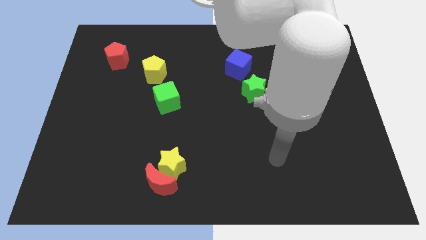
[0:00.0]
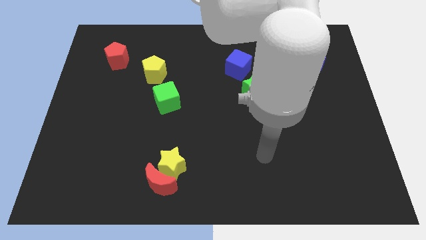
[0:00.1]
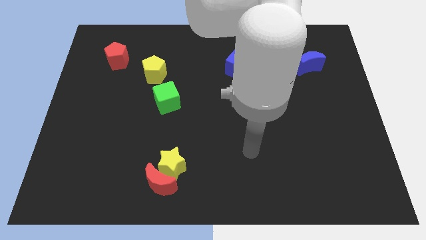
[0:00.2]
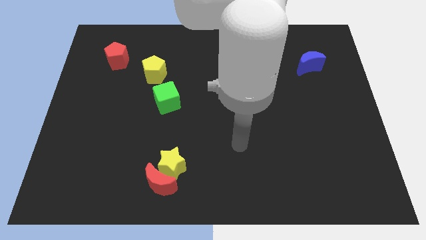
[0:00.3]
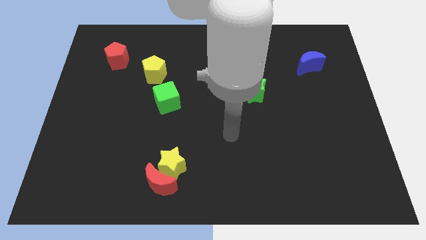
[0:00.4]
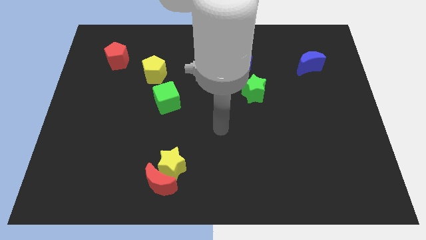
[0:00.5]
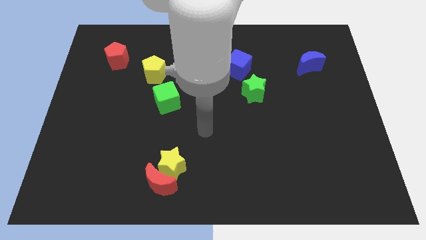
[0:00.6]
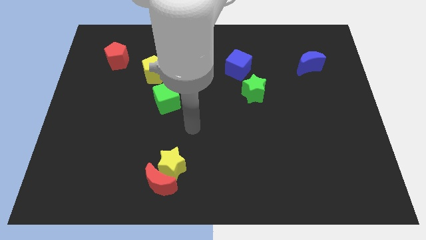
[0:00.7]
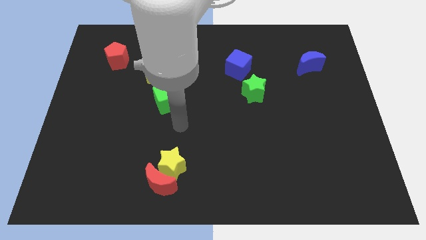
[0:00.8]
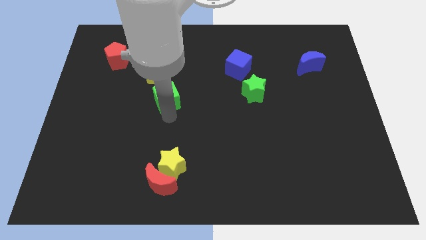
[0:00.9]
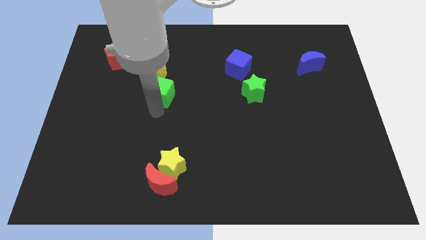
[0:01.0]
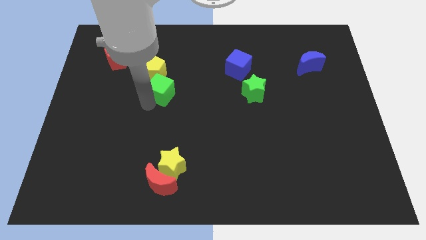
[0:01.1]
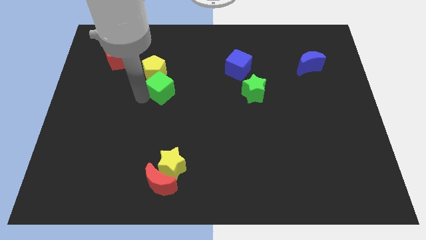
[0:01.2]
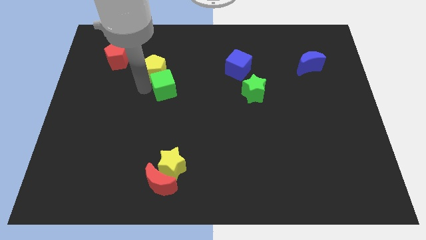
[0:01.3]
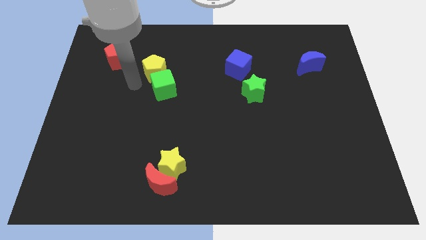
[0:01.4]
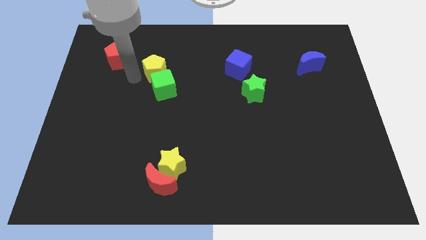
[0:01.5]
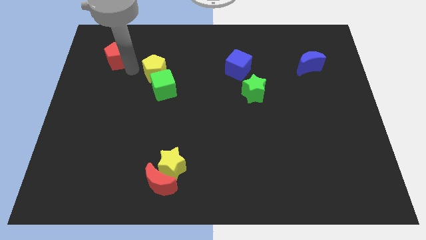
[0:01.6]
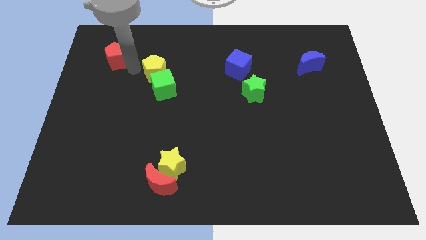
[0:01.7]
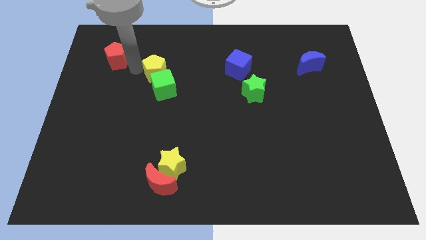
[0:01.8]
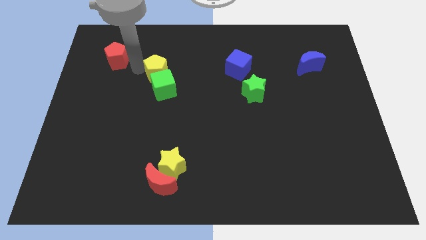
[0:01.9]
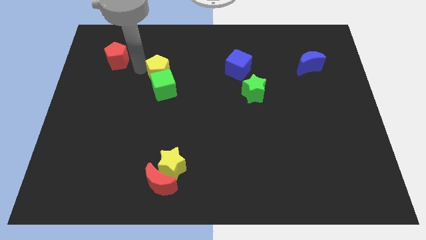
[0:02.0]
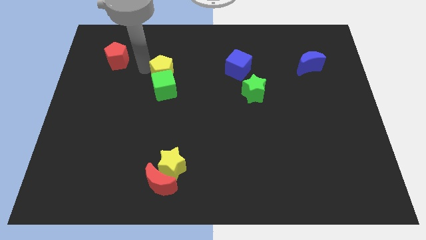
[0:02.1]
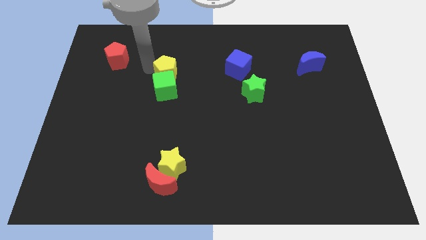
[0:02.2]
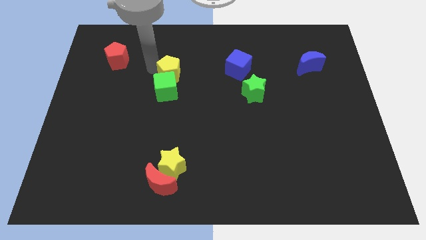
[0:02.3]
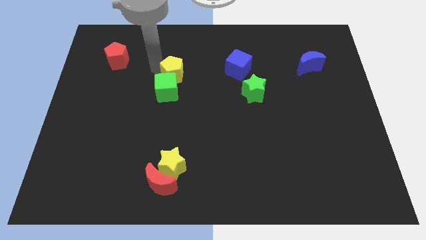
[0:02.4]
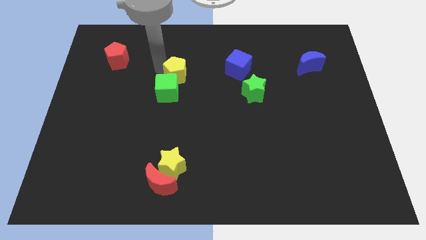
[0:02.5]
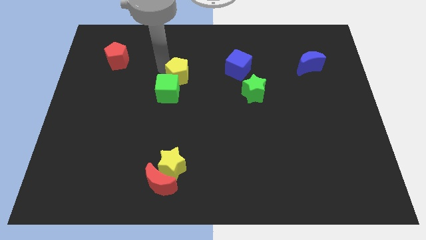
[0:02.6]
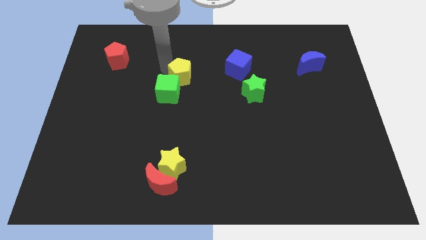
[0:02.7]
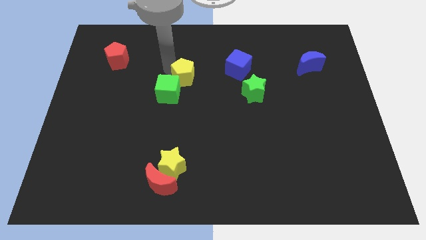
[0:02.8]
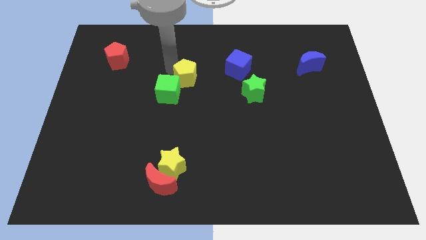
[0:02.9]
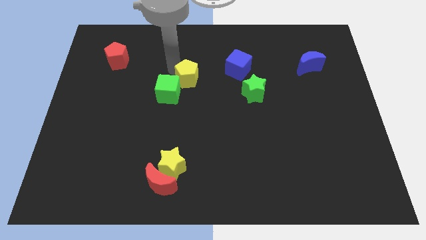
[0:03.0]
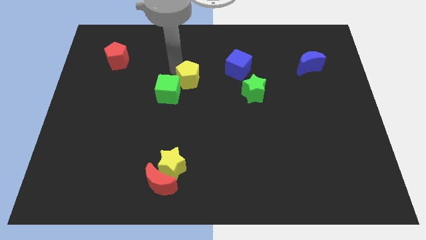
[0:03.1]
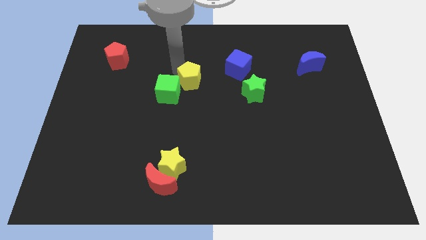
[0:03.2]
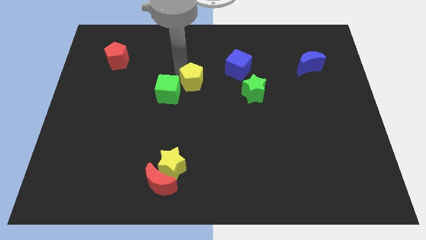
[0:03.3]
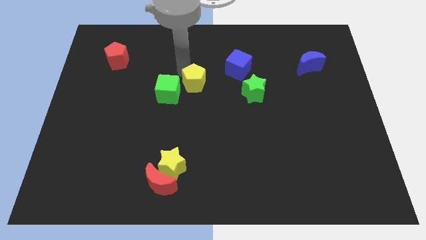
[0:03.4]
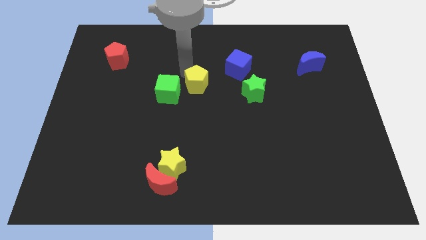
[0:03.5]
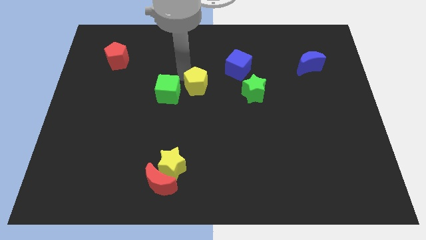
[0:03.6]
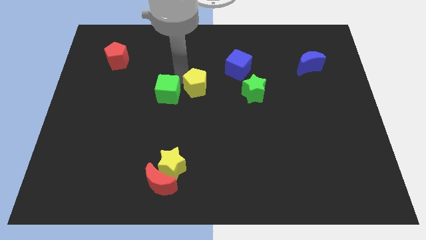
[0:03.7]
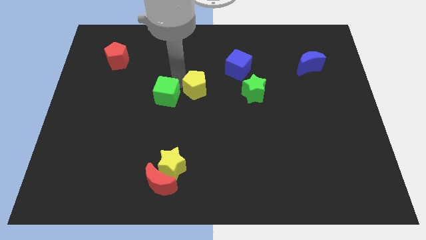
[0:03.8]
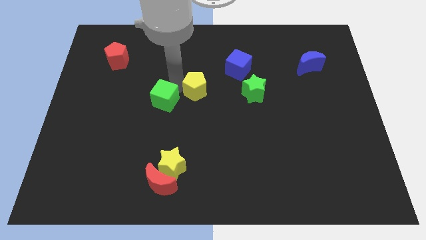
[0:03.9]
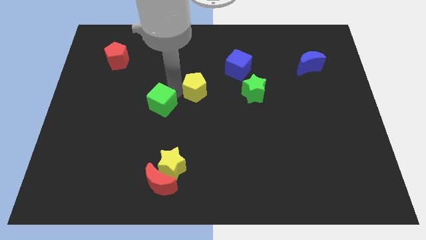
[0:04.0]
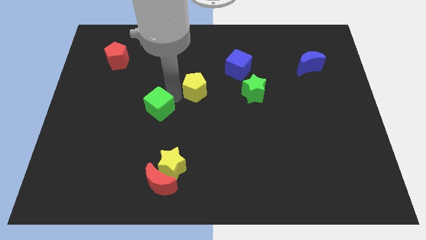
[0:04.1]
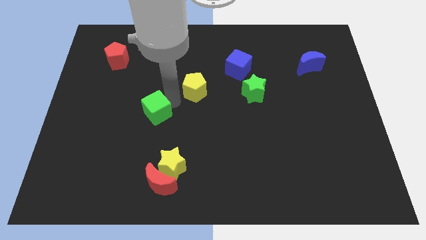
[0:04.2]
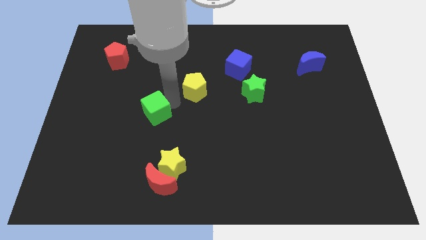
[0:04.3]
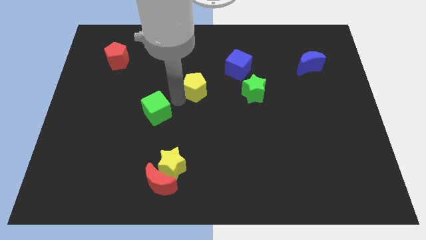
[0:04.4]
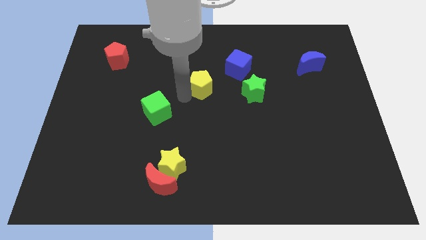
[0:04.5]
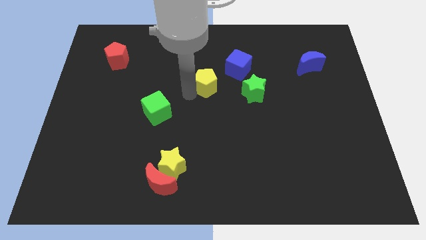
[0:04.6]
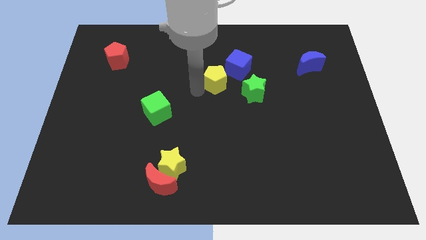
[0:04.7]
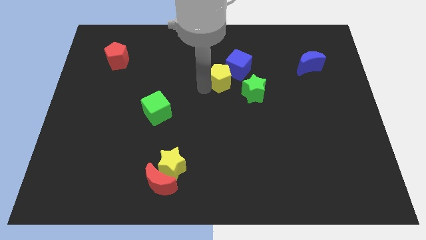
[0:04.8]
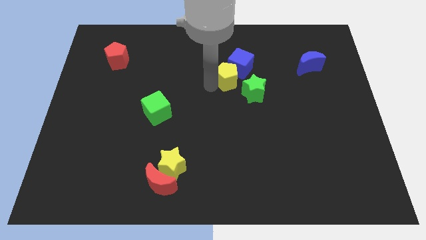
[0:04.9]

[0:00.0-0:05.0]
slide the yellow pentagon close to the blue cube

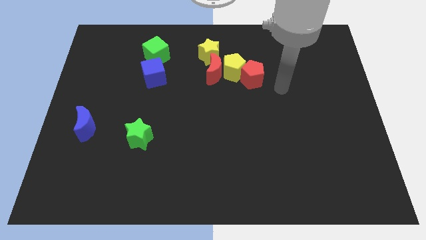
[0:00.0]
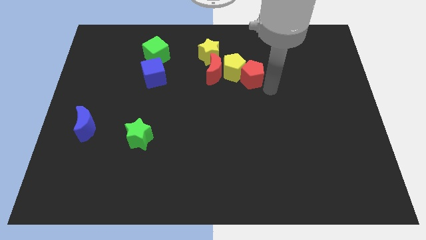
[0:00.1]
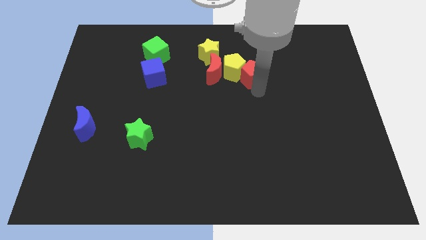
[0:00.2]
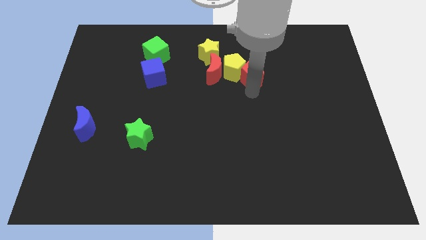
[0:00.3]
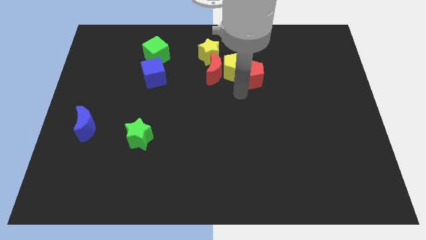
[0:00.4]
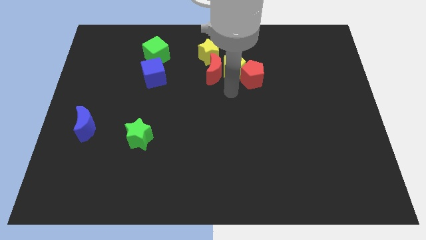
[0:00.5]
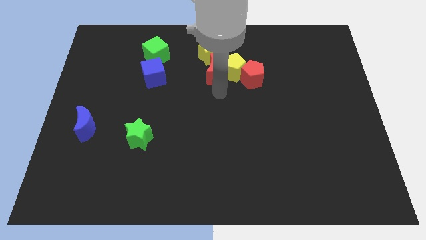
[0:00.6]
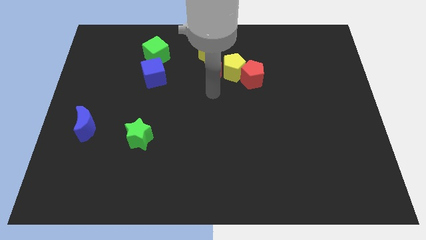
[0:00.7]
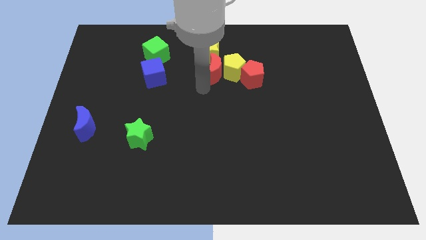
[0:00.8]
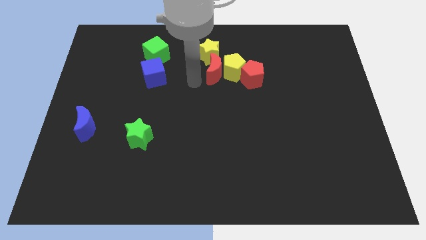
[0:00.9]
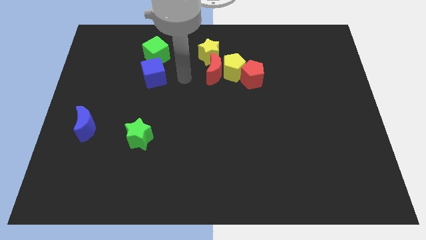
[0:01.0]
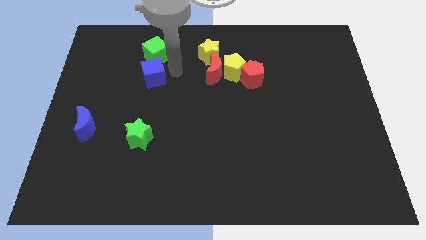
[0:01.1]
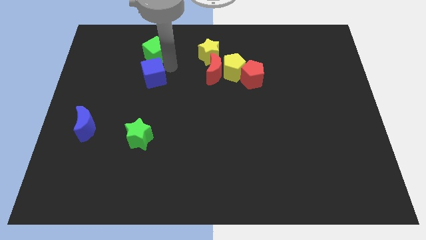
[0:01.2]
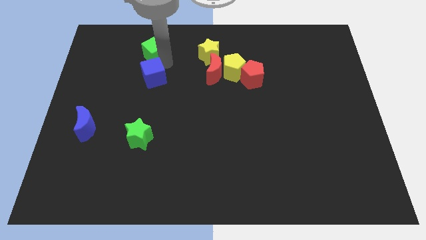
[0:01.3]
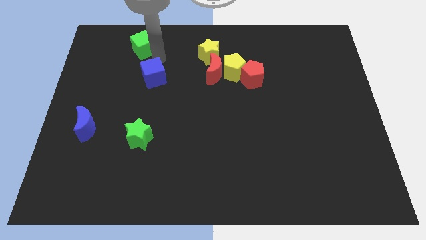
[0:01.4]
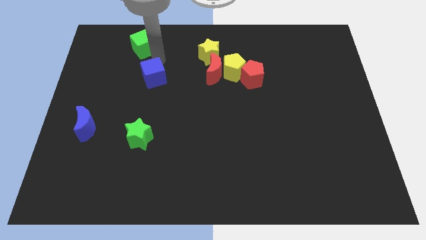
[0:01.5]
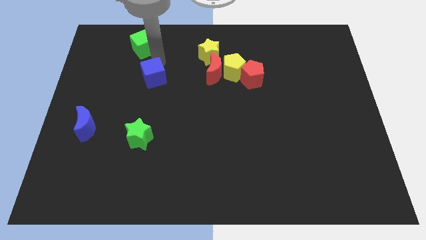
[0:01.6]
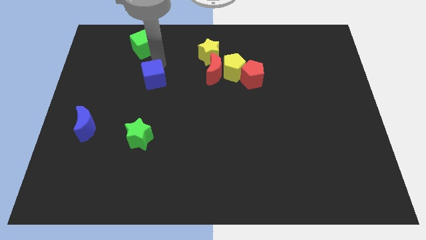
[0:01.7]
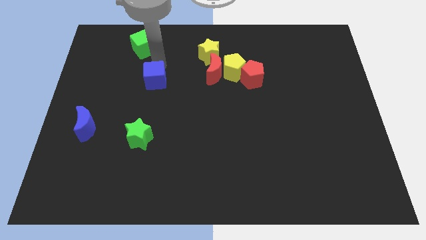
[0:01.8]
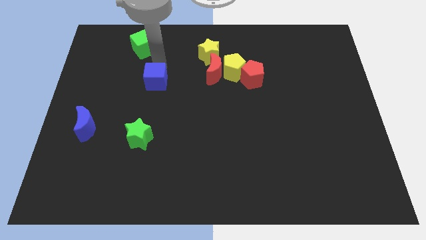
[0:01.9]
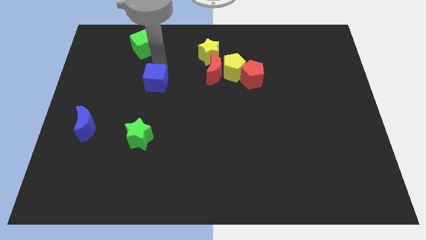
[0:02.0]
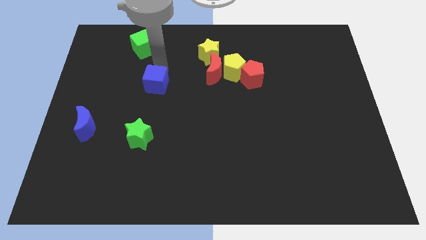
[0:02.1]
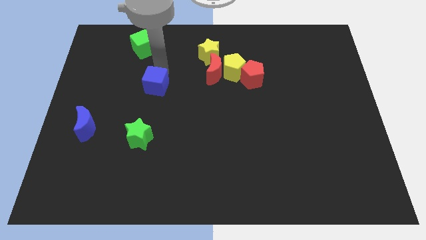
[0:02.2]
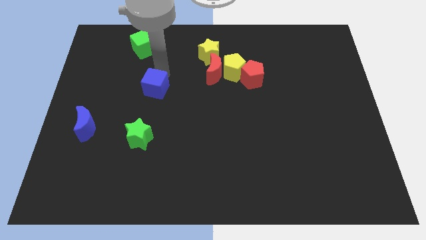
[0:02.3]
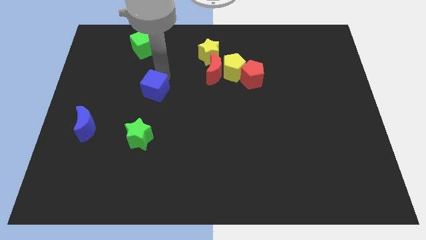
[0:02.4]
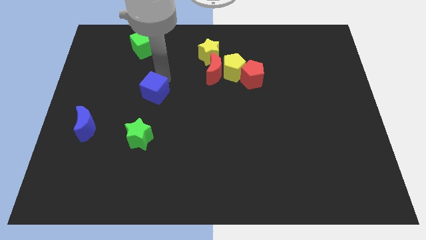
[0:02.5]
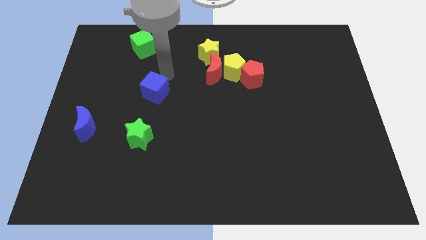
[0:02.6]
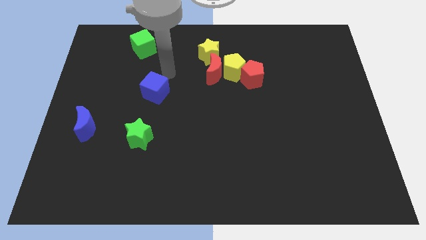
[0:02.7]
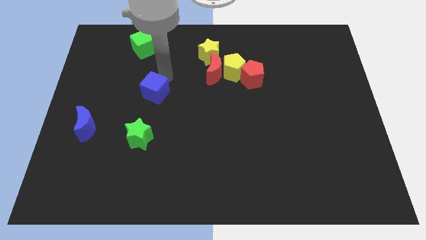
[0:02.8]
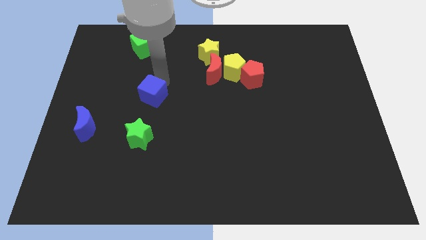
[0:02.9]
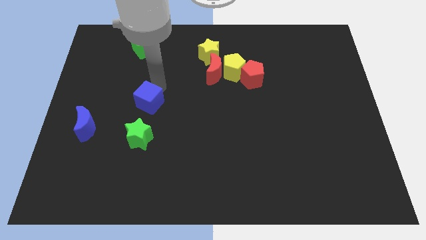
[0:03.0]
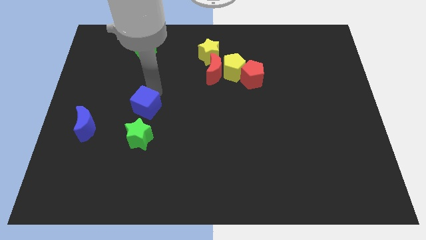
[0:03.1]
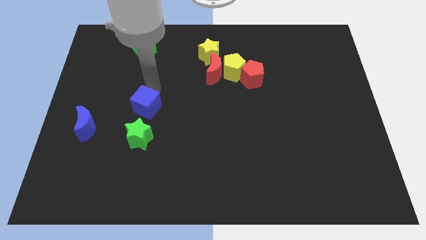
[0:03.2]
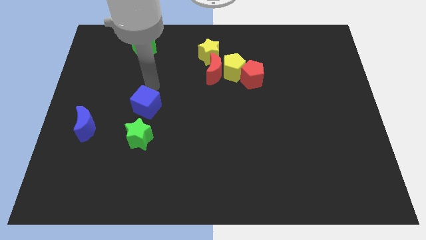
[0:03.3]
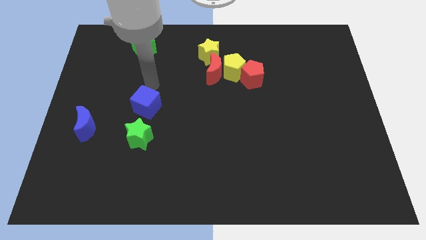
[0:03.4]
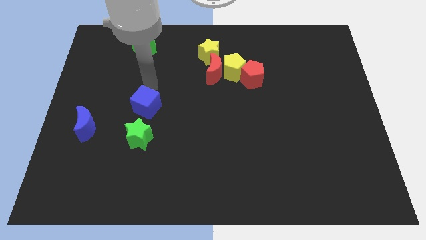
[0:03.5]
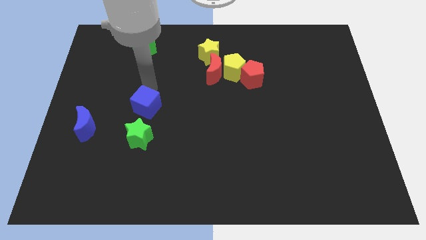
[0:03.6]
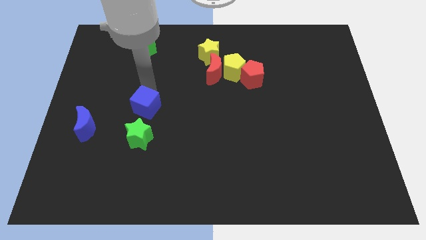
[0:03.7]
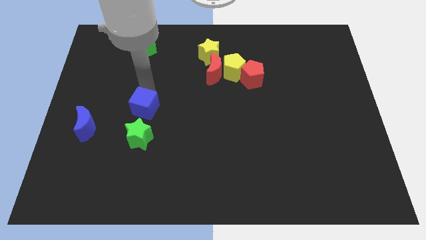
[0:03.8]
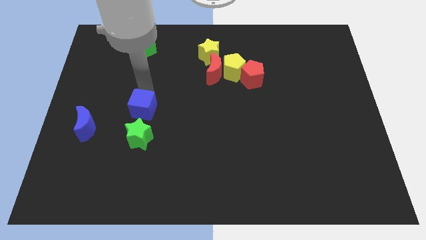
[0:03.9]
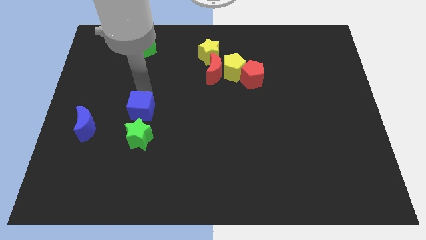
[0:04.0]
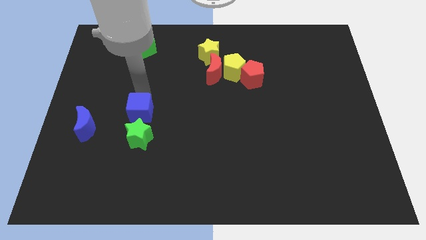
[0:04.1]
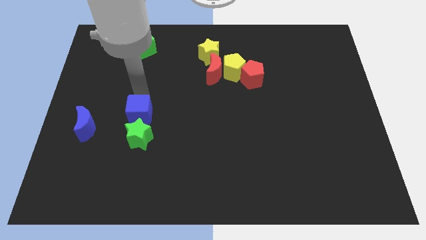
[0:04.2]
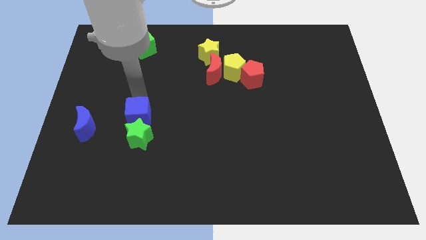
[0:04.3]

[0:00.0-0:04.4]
move the blue cube towards the green star
